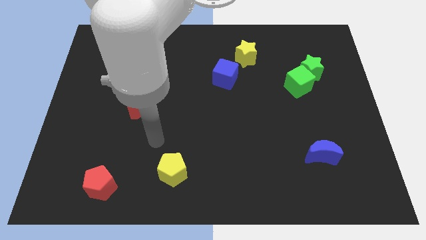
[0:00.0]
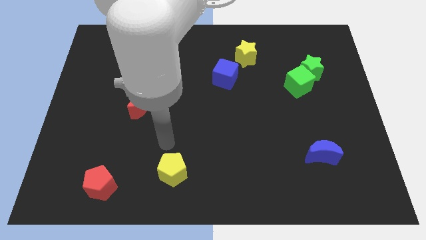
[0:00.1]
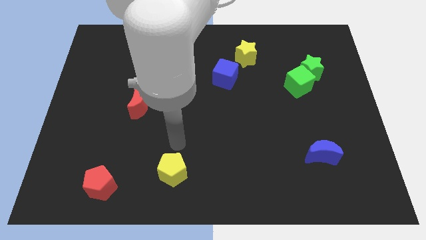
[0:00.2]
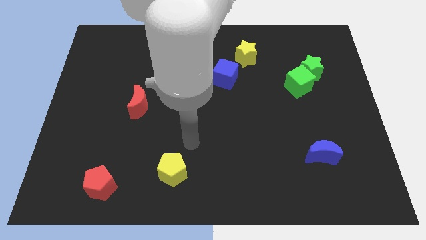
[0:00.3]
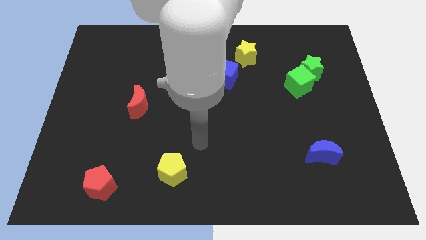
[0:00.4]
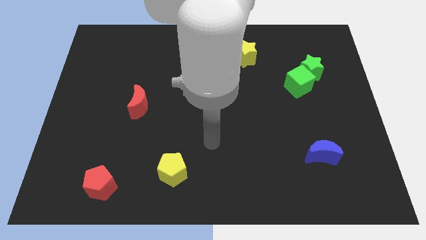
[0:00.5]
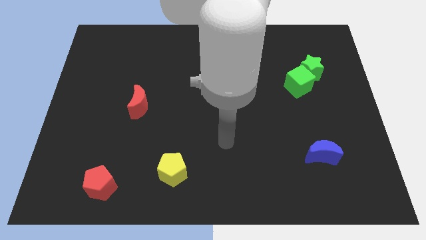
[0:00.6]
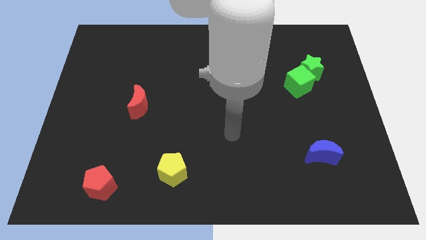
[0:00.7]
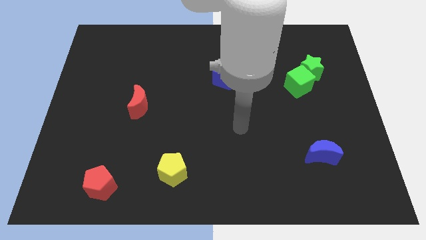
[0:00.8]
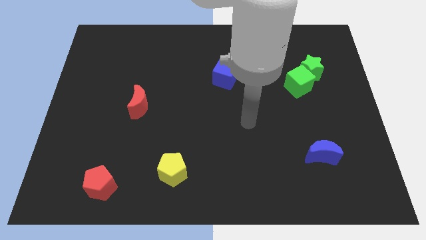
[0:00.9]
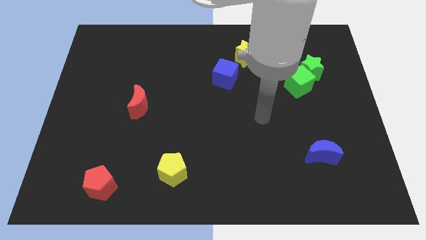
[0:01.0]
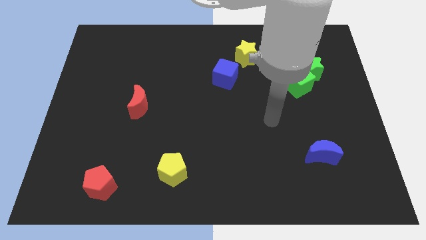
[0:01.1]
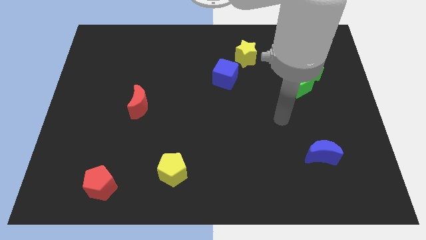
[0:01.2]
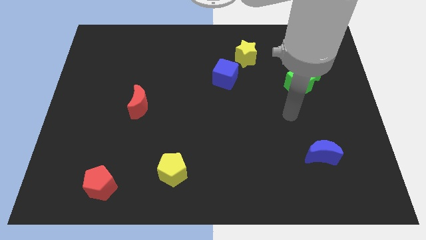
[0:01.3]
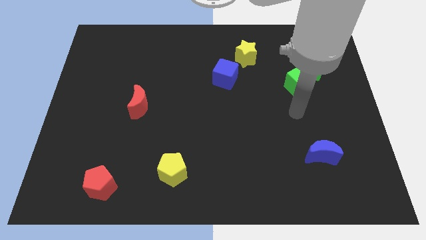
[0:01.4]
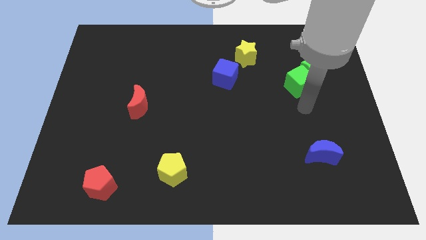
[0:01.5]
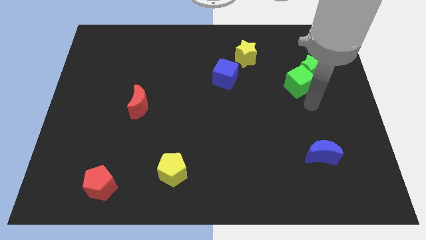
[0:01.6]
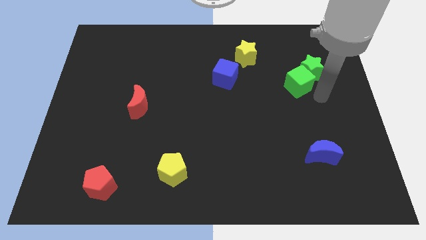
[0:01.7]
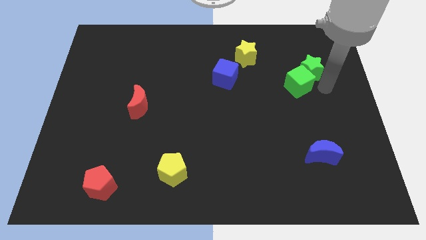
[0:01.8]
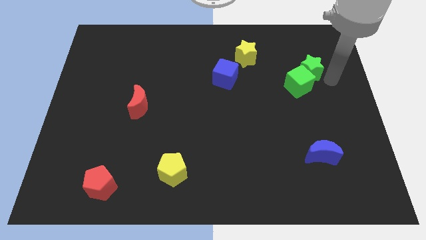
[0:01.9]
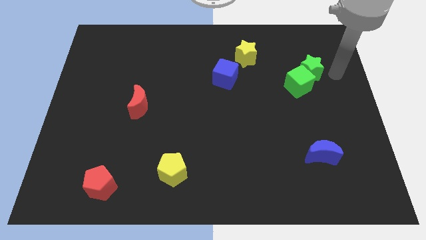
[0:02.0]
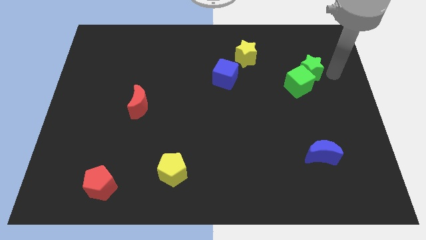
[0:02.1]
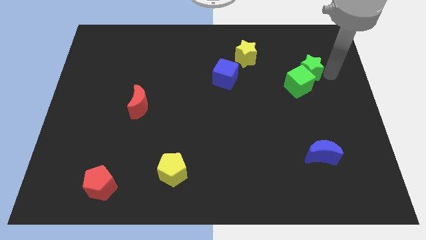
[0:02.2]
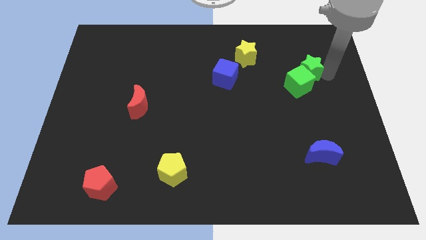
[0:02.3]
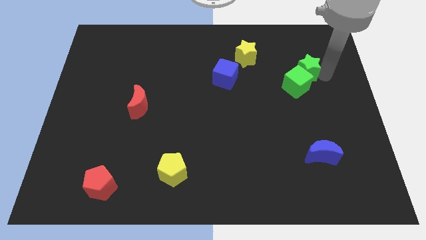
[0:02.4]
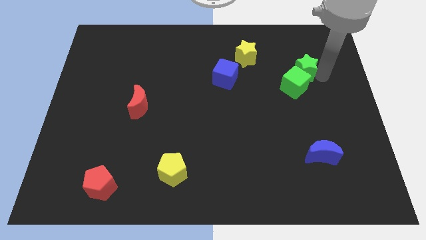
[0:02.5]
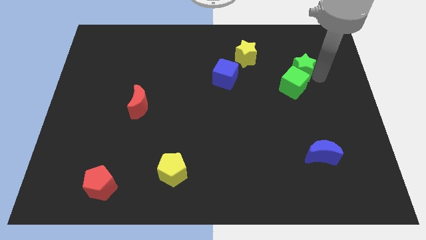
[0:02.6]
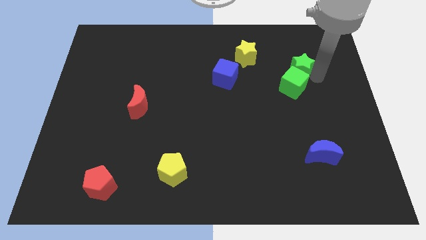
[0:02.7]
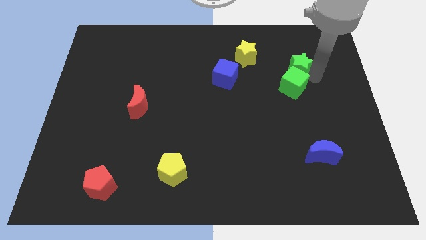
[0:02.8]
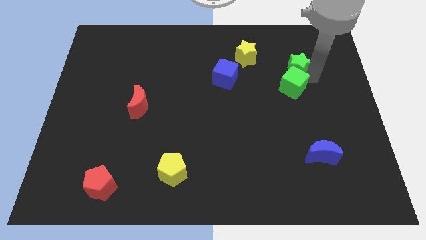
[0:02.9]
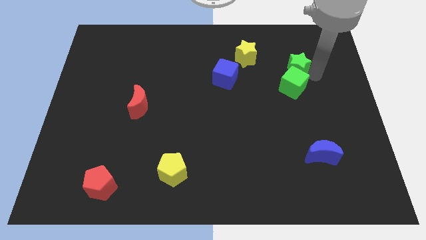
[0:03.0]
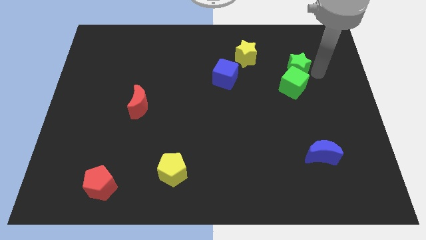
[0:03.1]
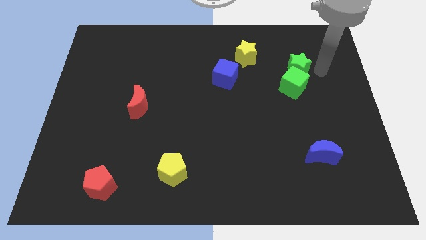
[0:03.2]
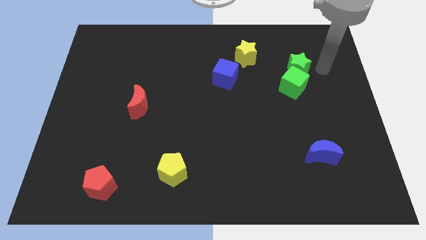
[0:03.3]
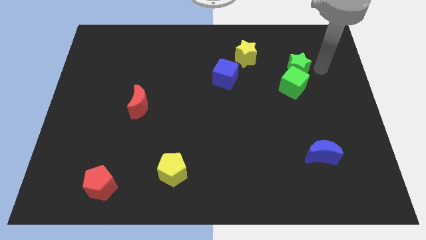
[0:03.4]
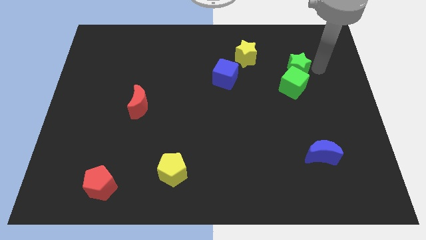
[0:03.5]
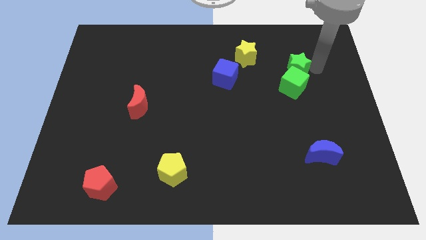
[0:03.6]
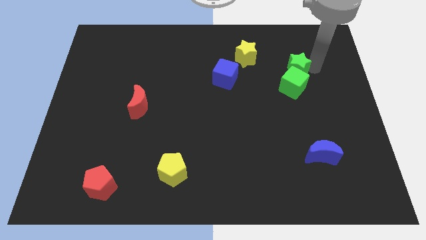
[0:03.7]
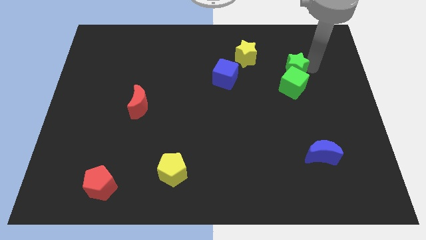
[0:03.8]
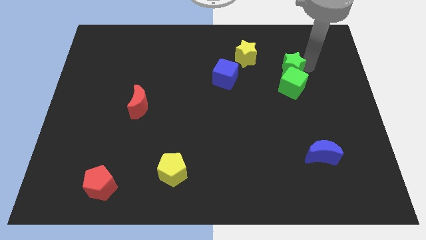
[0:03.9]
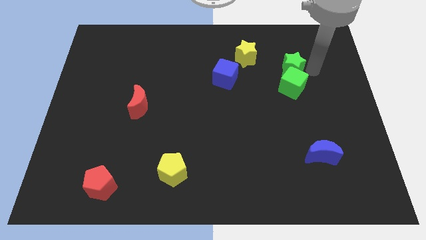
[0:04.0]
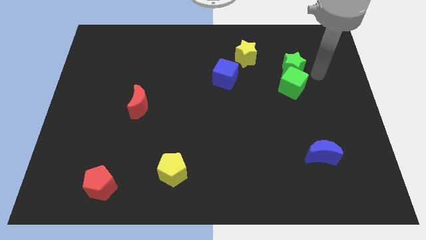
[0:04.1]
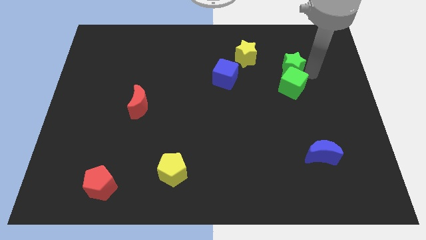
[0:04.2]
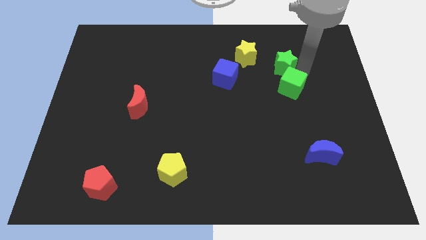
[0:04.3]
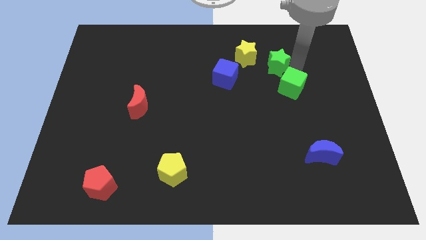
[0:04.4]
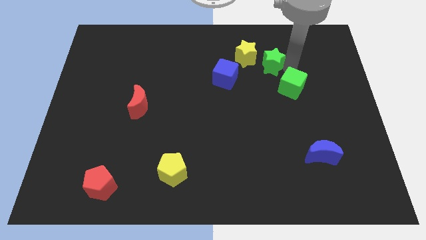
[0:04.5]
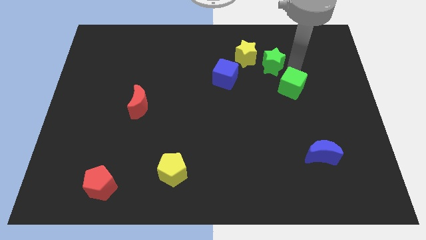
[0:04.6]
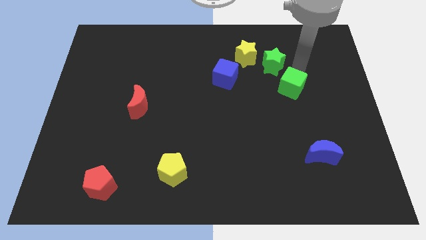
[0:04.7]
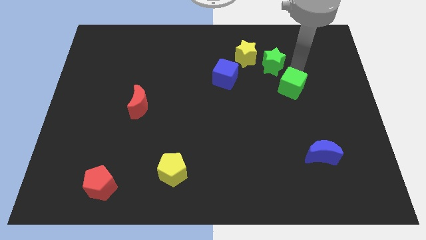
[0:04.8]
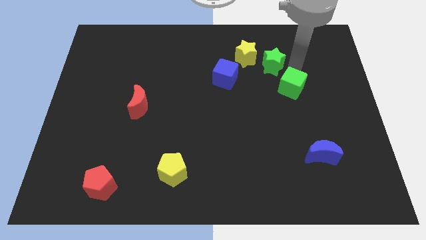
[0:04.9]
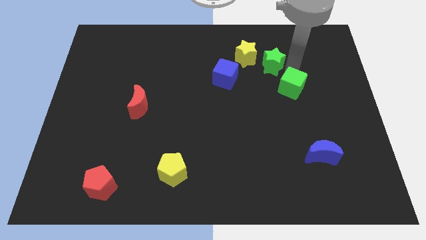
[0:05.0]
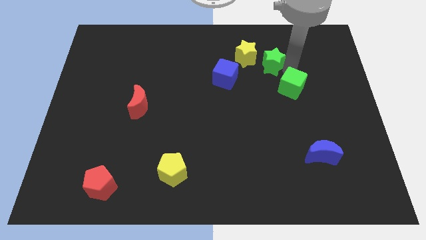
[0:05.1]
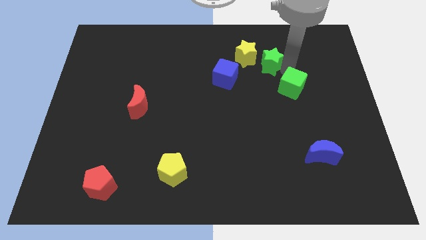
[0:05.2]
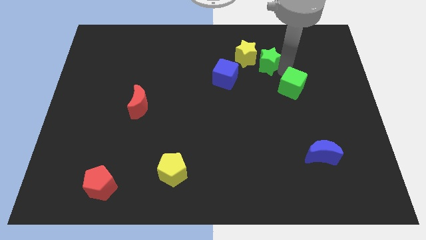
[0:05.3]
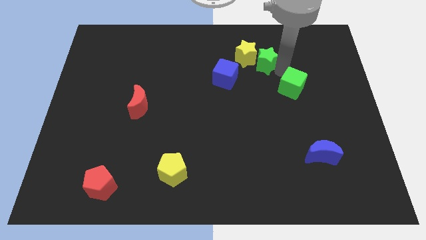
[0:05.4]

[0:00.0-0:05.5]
slide the green star close to the yellow star

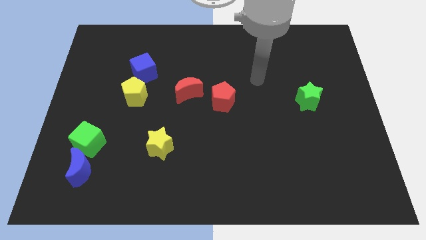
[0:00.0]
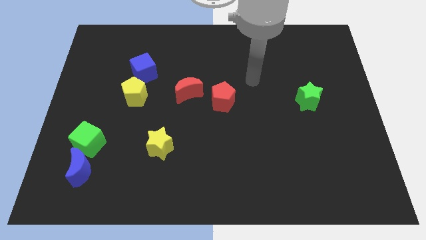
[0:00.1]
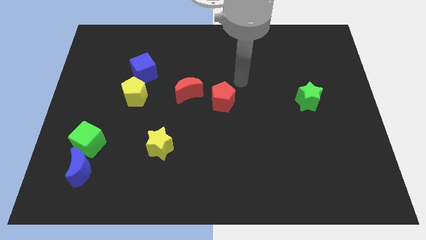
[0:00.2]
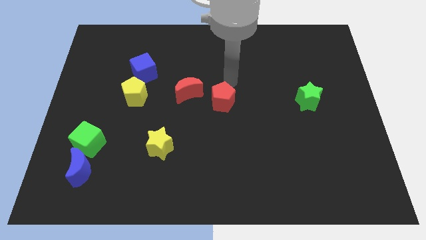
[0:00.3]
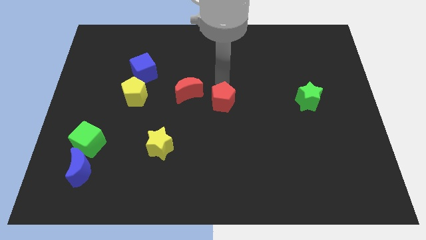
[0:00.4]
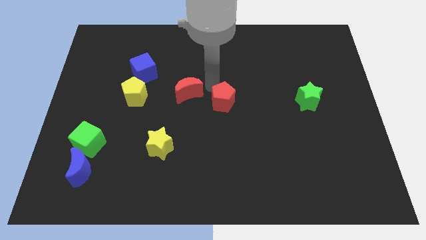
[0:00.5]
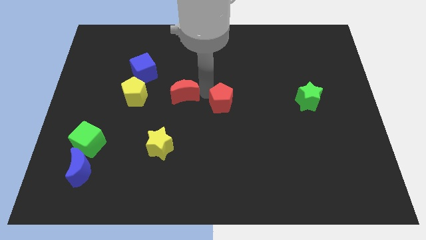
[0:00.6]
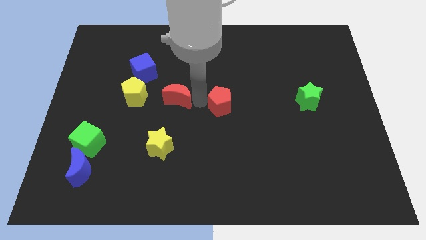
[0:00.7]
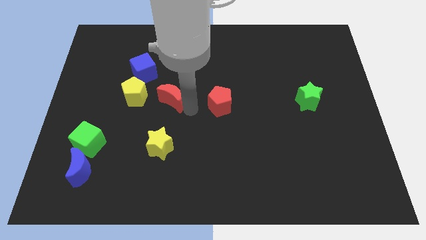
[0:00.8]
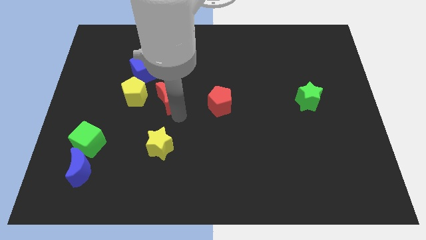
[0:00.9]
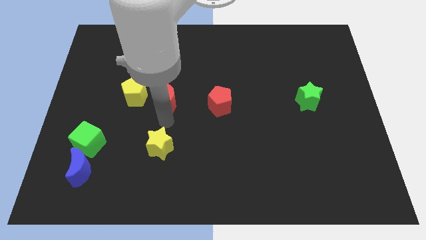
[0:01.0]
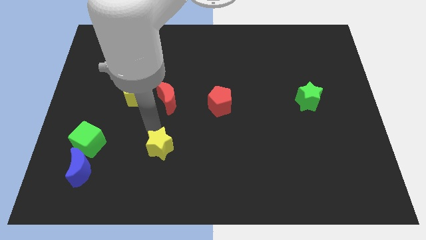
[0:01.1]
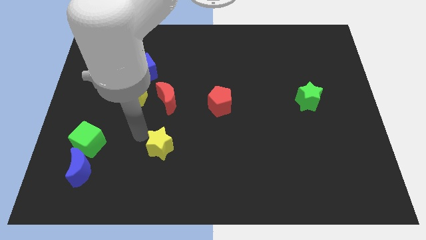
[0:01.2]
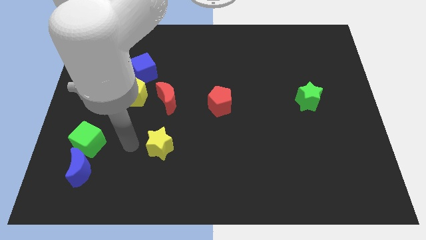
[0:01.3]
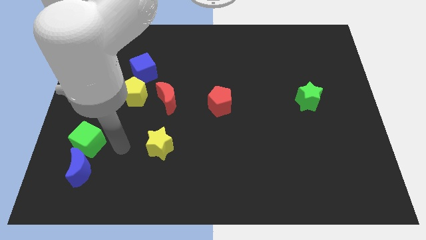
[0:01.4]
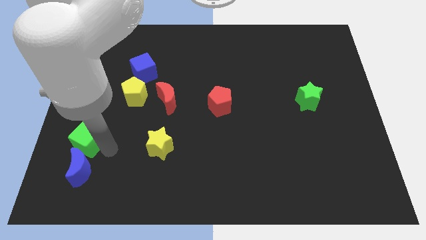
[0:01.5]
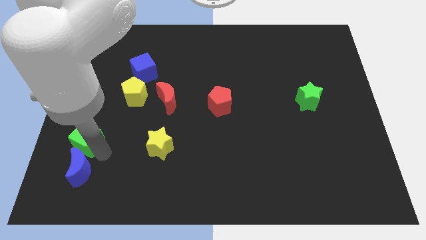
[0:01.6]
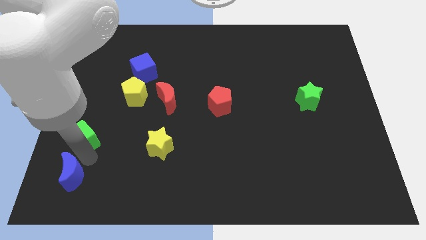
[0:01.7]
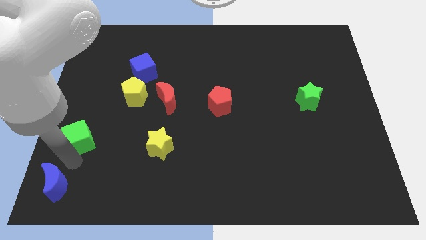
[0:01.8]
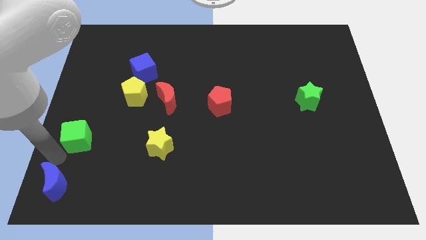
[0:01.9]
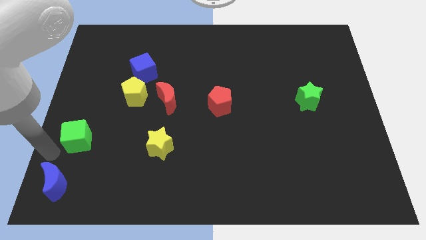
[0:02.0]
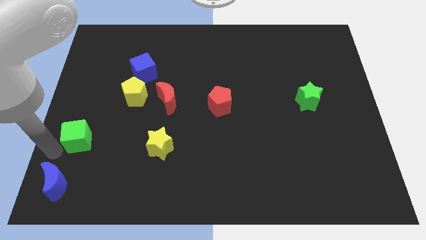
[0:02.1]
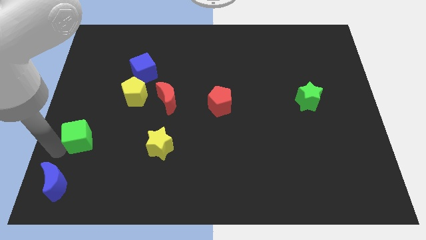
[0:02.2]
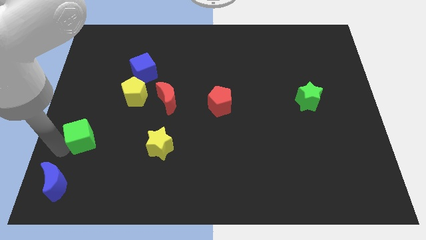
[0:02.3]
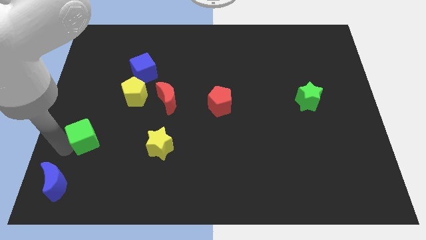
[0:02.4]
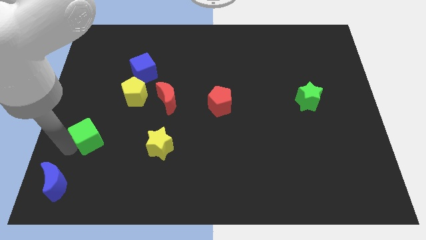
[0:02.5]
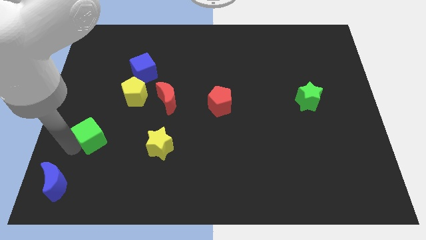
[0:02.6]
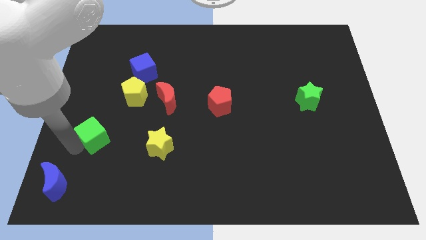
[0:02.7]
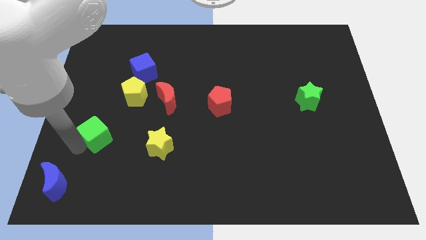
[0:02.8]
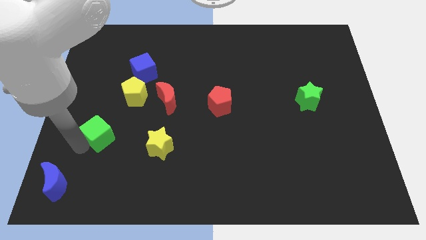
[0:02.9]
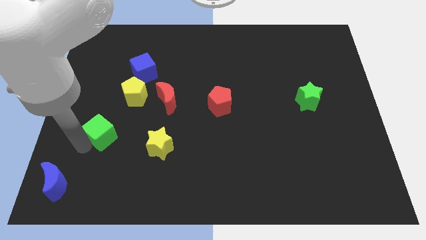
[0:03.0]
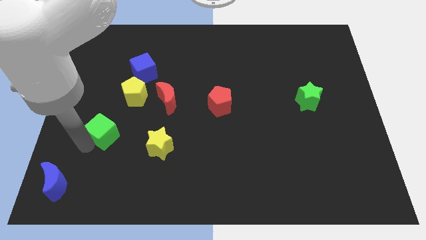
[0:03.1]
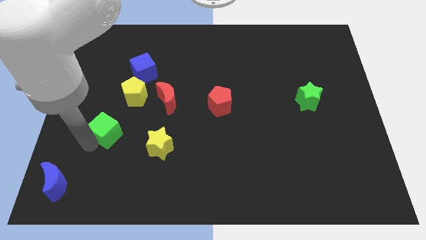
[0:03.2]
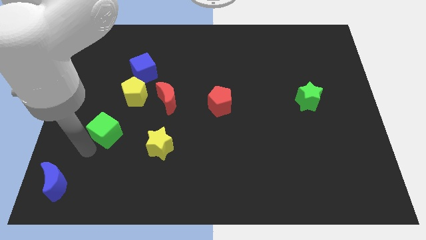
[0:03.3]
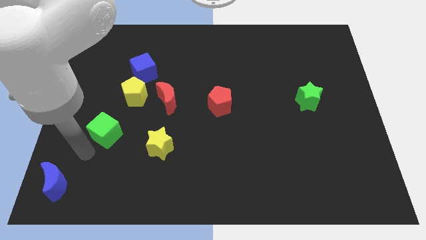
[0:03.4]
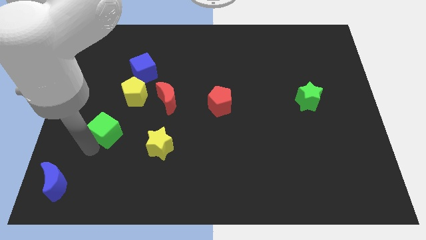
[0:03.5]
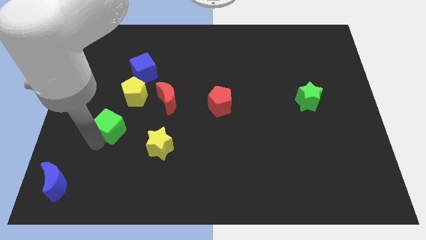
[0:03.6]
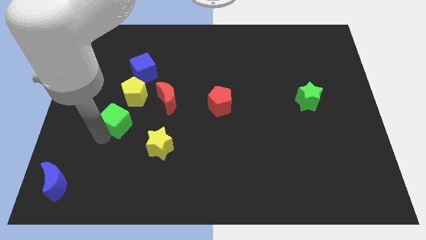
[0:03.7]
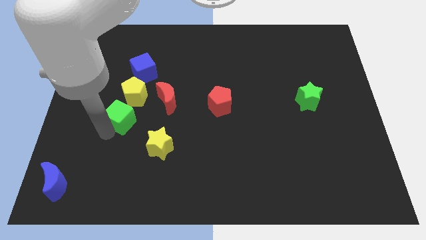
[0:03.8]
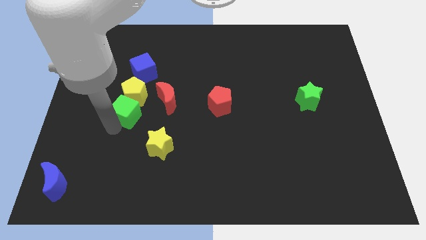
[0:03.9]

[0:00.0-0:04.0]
put the green cube close to the yellow pentagon
